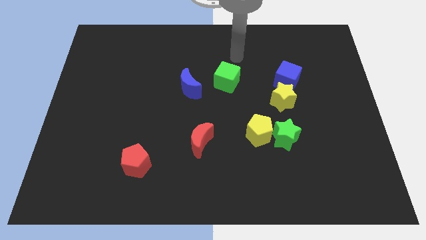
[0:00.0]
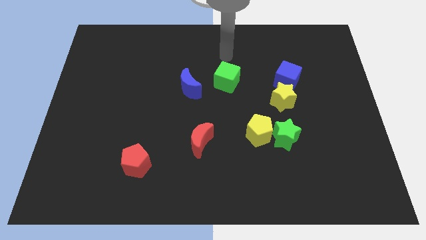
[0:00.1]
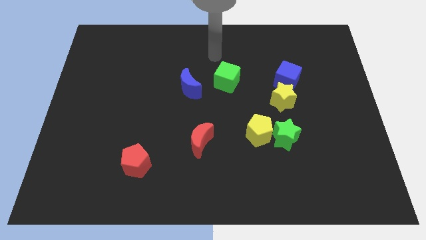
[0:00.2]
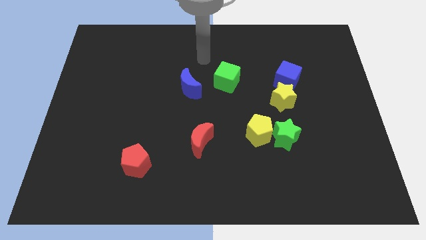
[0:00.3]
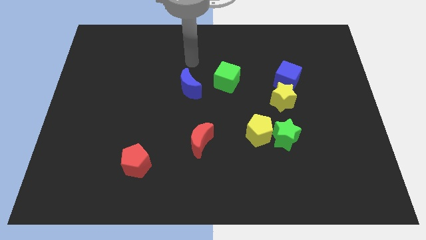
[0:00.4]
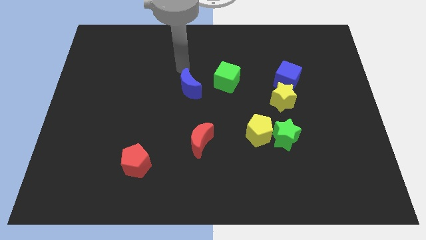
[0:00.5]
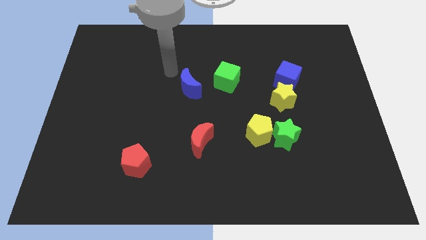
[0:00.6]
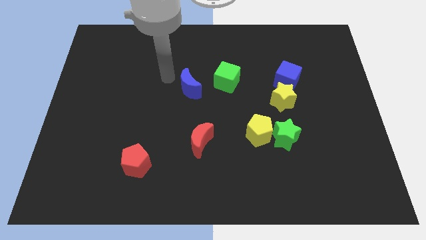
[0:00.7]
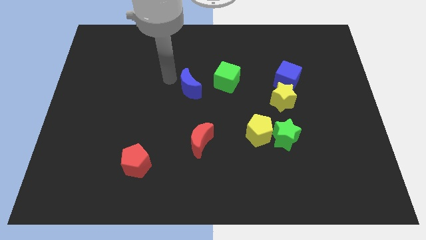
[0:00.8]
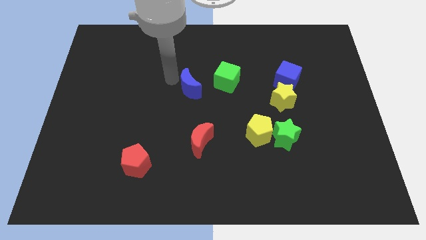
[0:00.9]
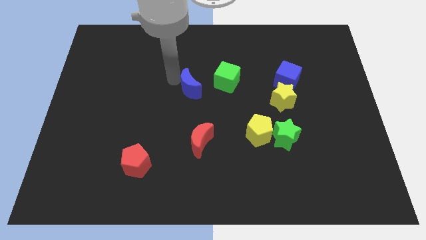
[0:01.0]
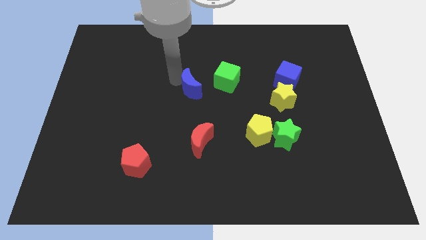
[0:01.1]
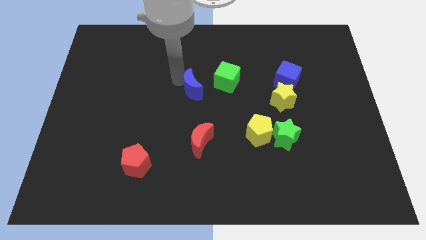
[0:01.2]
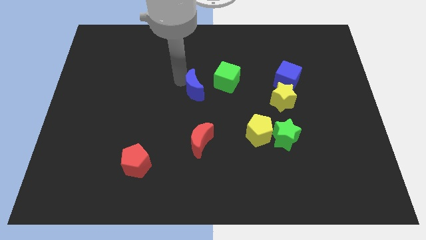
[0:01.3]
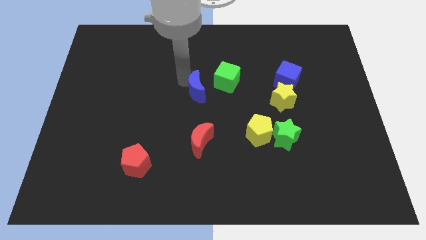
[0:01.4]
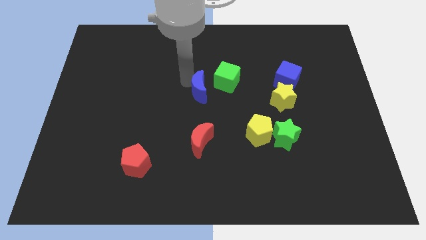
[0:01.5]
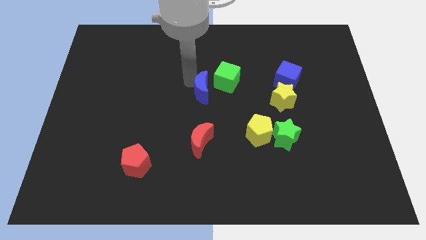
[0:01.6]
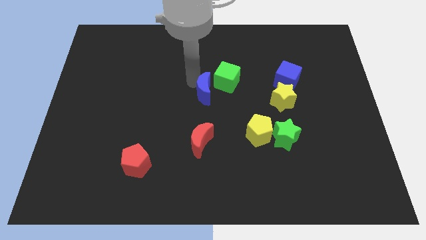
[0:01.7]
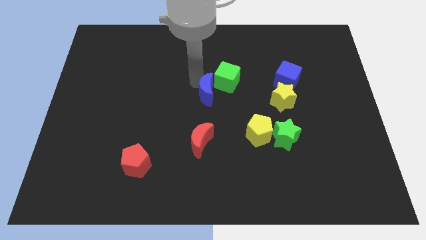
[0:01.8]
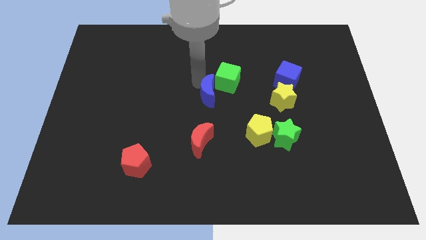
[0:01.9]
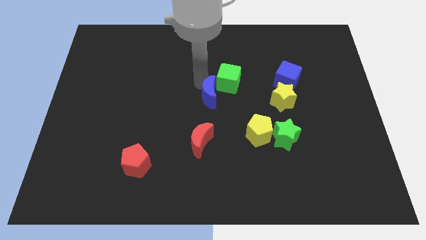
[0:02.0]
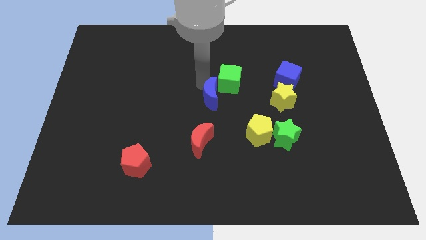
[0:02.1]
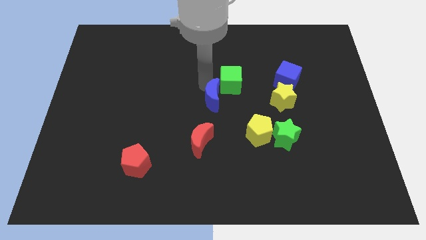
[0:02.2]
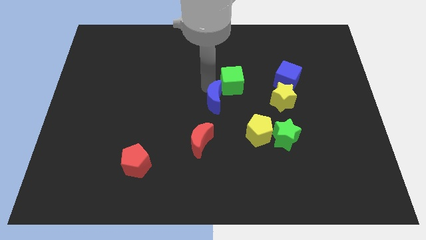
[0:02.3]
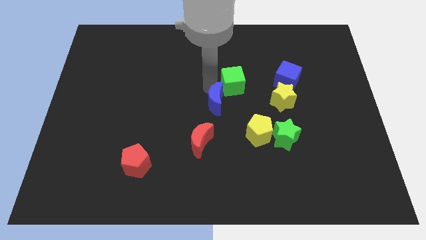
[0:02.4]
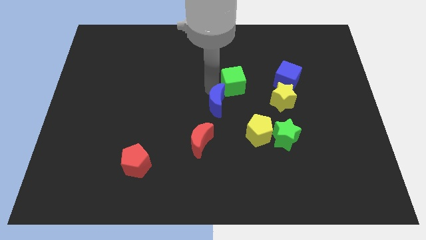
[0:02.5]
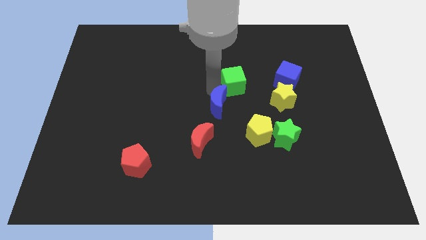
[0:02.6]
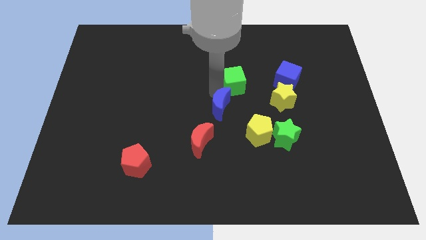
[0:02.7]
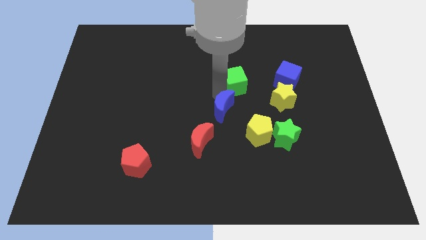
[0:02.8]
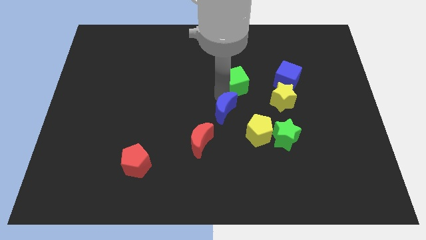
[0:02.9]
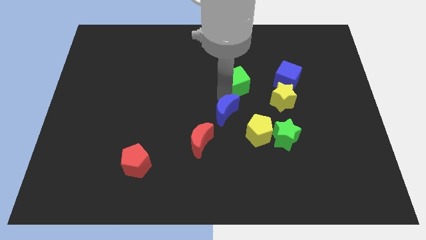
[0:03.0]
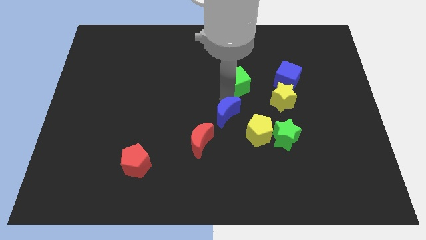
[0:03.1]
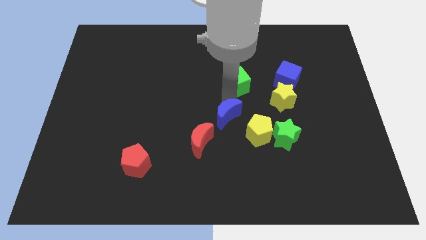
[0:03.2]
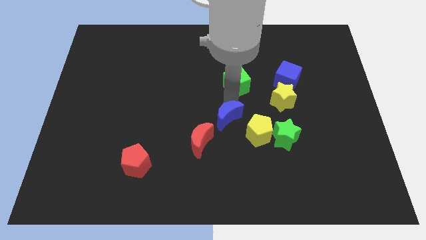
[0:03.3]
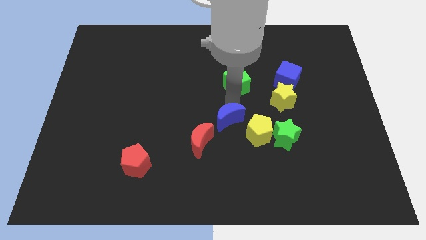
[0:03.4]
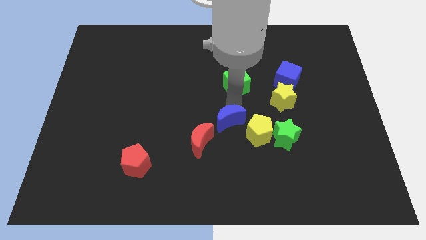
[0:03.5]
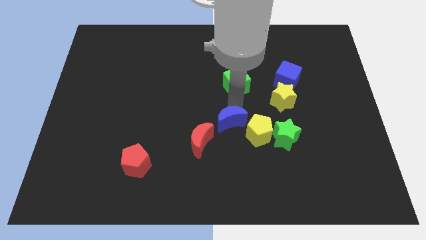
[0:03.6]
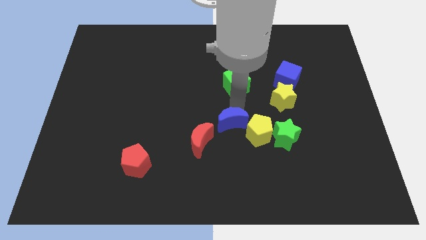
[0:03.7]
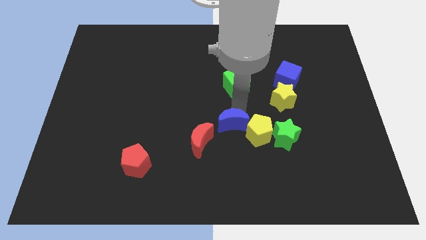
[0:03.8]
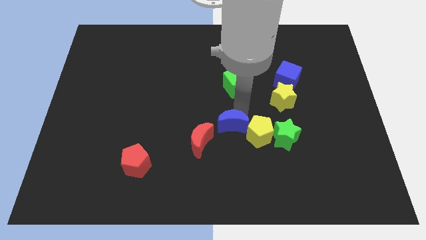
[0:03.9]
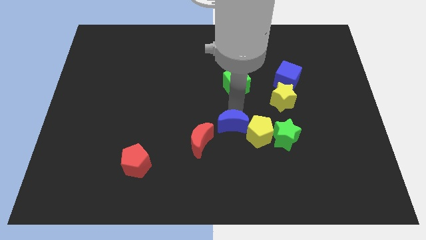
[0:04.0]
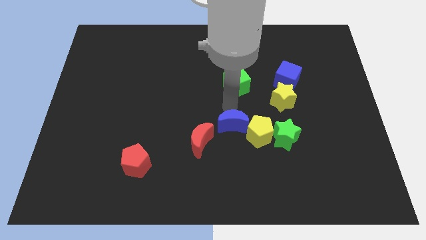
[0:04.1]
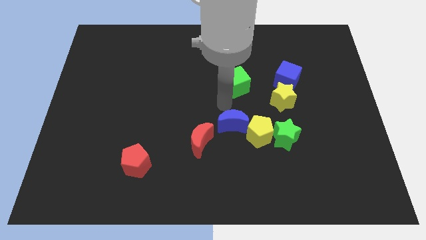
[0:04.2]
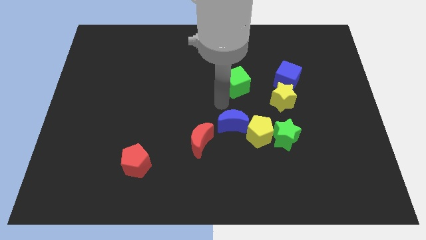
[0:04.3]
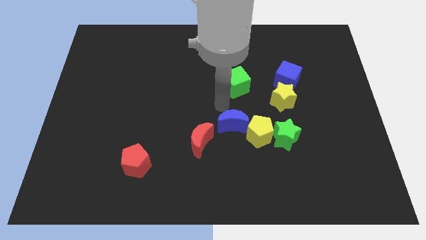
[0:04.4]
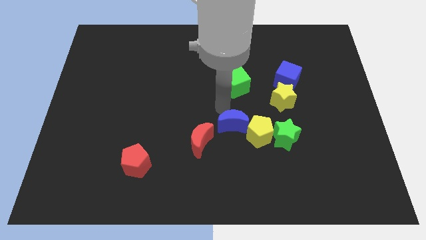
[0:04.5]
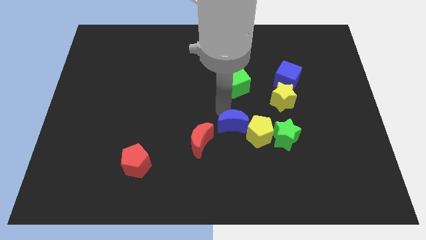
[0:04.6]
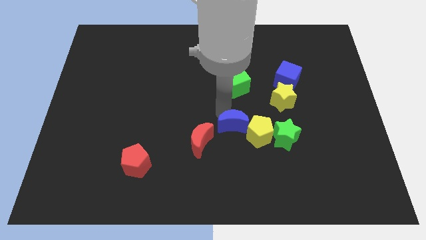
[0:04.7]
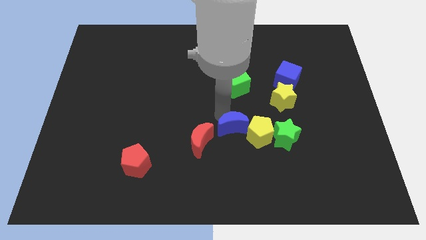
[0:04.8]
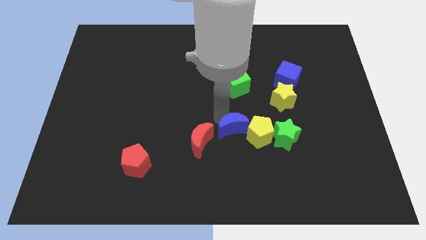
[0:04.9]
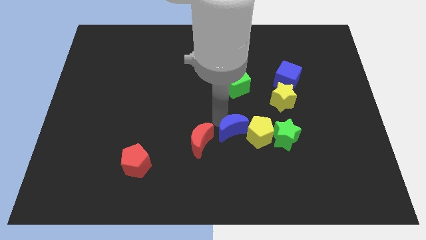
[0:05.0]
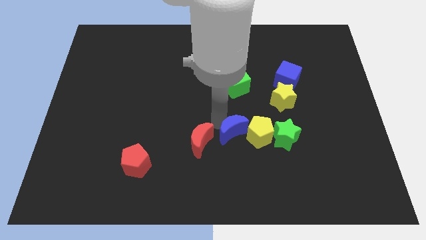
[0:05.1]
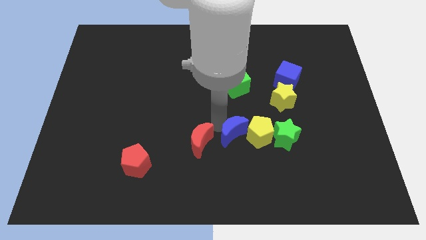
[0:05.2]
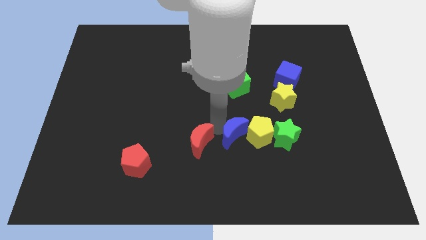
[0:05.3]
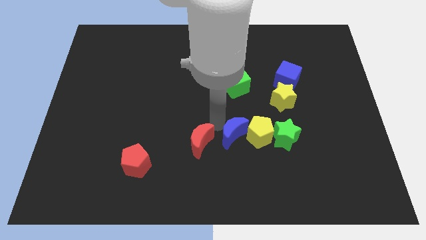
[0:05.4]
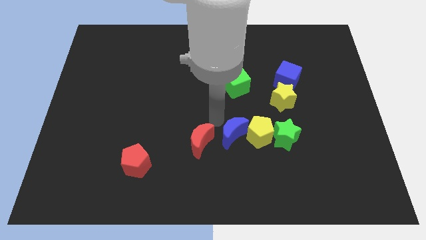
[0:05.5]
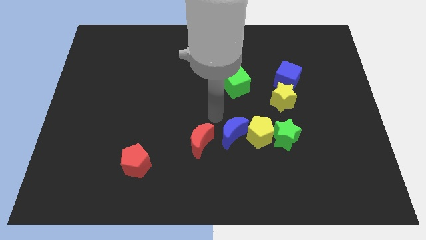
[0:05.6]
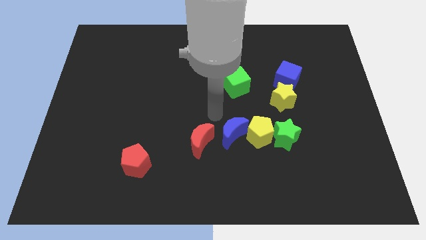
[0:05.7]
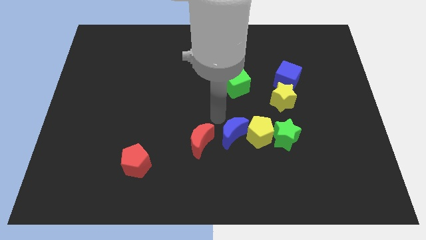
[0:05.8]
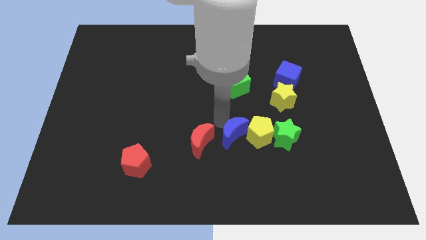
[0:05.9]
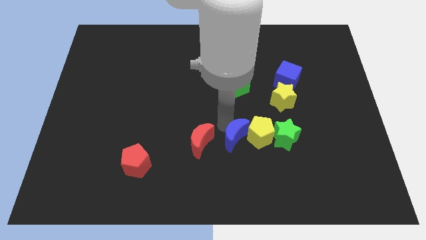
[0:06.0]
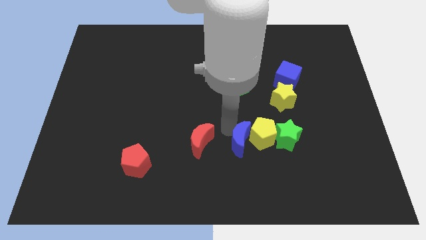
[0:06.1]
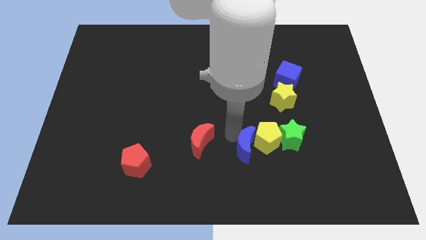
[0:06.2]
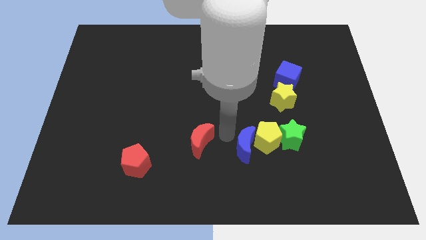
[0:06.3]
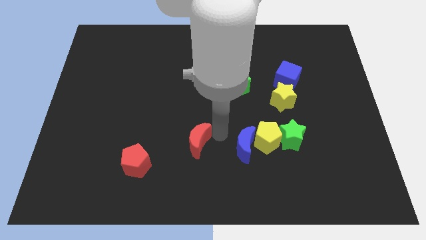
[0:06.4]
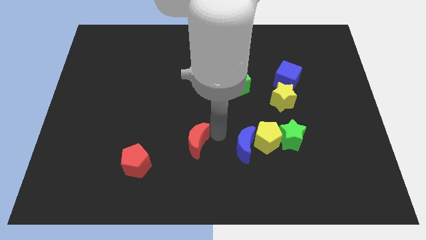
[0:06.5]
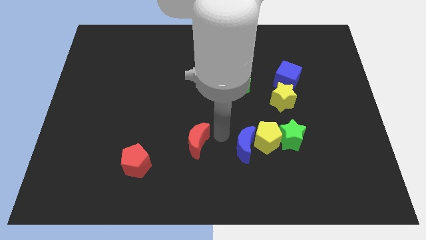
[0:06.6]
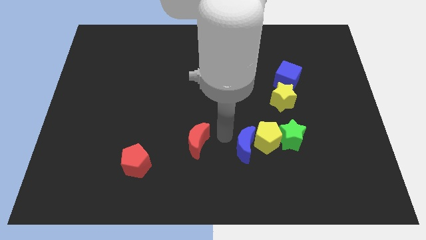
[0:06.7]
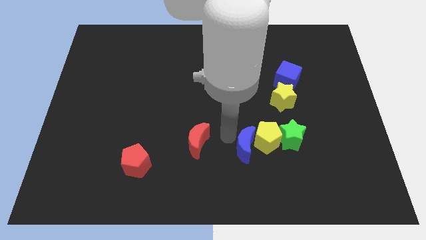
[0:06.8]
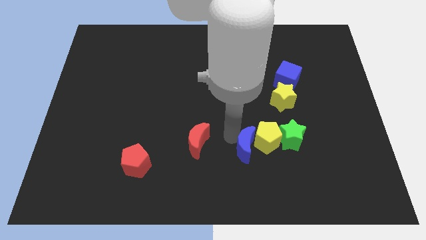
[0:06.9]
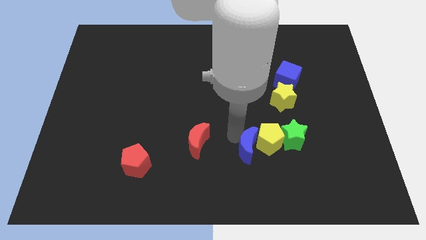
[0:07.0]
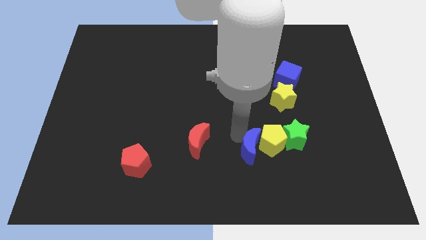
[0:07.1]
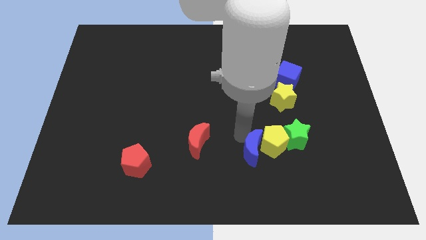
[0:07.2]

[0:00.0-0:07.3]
move the blue moon diagonally down and to the left of the green star
